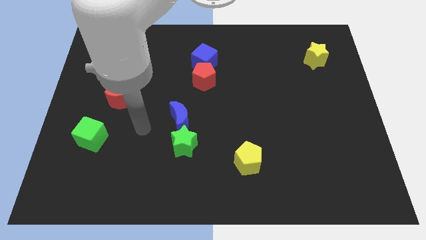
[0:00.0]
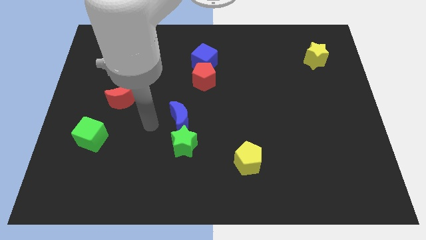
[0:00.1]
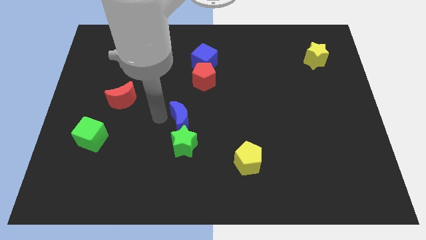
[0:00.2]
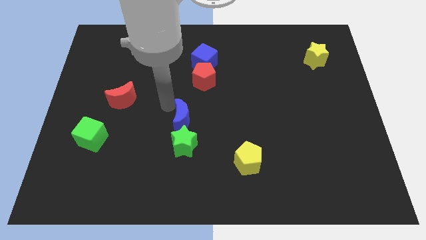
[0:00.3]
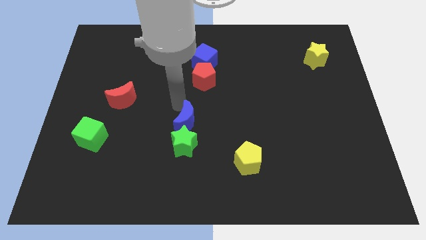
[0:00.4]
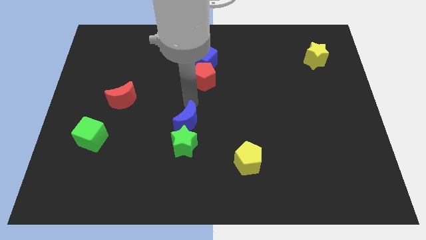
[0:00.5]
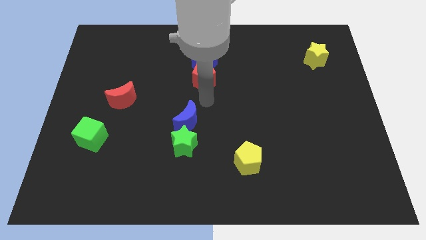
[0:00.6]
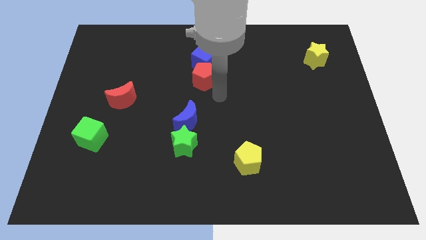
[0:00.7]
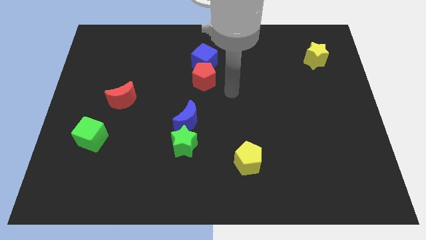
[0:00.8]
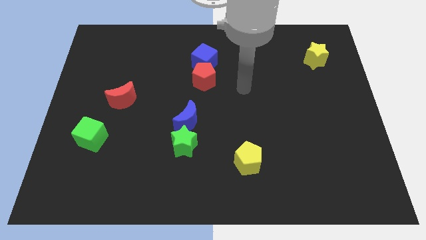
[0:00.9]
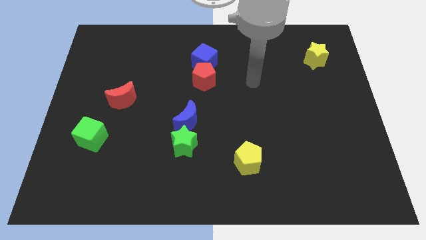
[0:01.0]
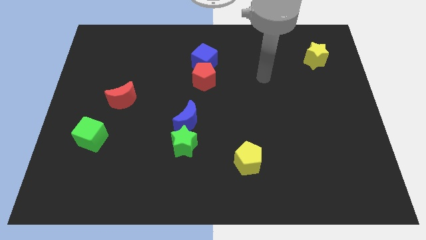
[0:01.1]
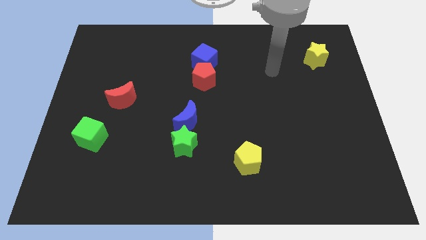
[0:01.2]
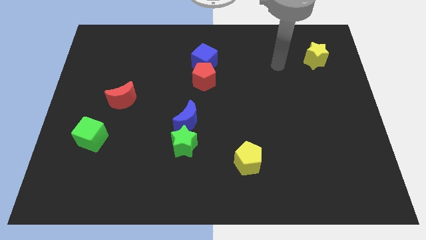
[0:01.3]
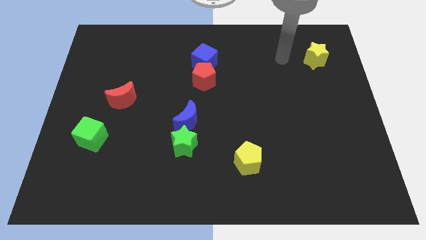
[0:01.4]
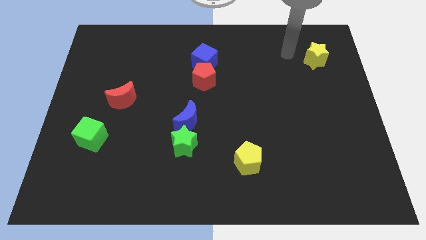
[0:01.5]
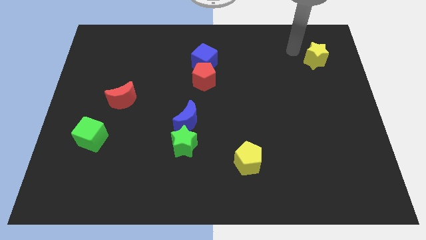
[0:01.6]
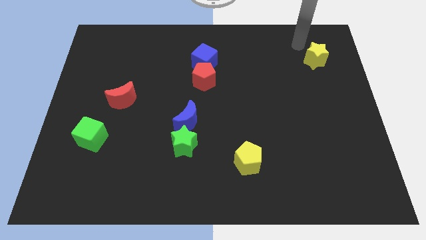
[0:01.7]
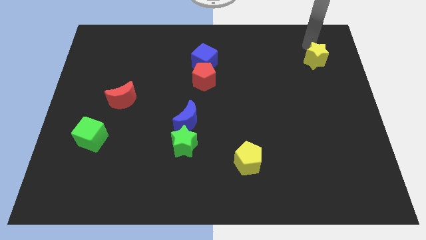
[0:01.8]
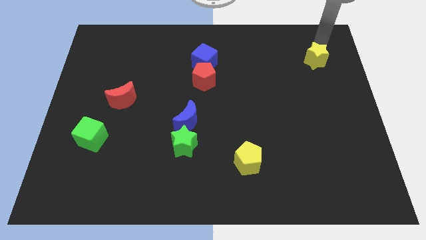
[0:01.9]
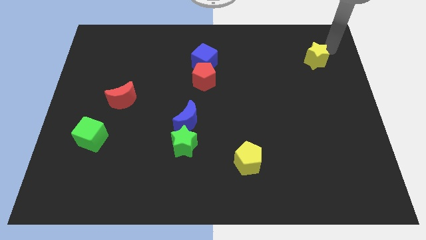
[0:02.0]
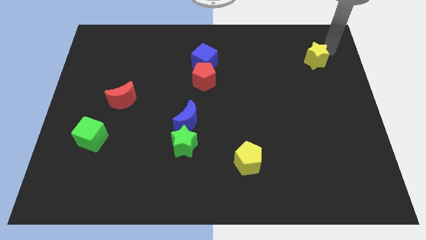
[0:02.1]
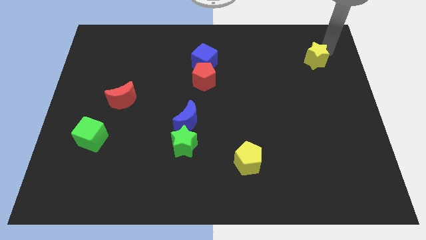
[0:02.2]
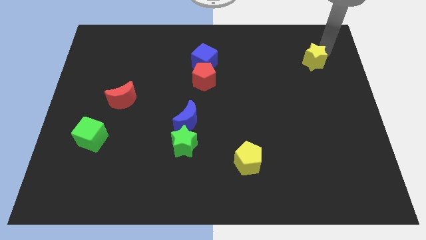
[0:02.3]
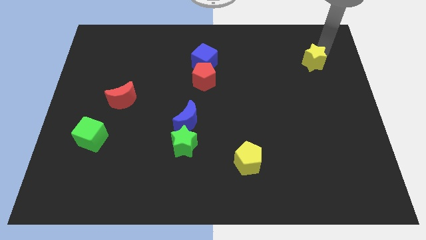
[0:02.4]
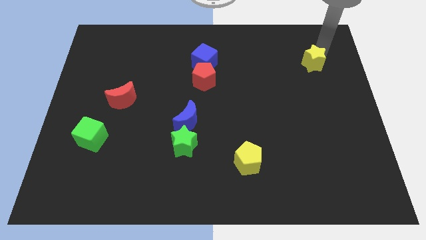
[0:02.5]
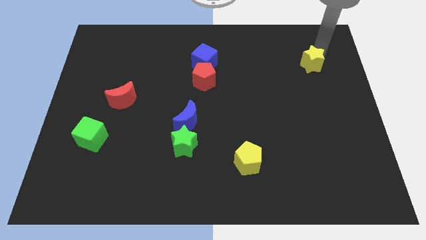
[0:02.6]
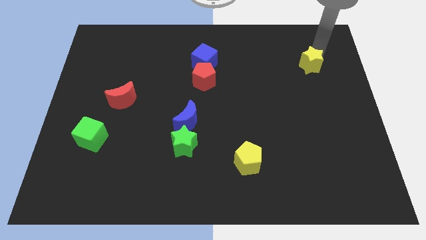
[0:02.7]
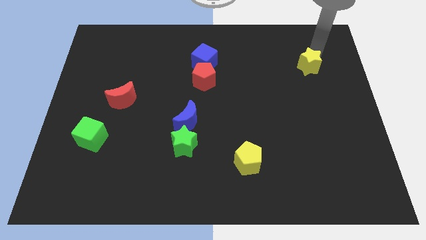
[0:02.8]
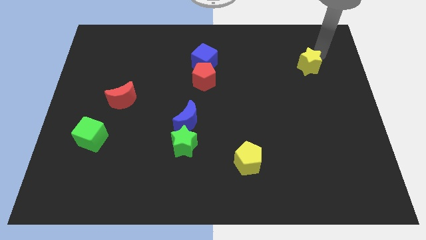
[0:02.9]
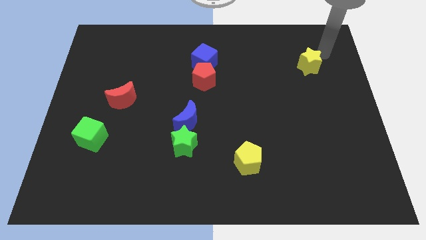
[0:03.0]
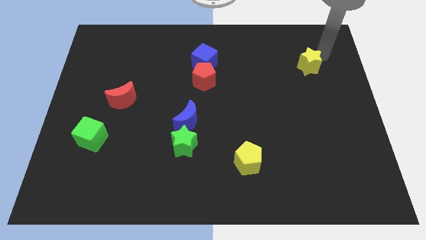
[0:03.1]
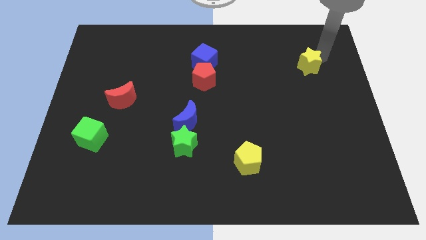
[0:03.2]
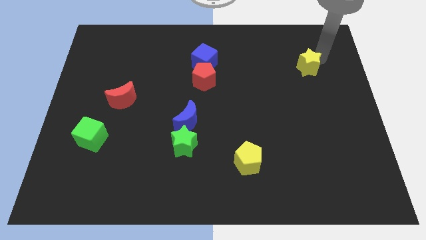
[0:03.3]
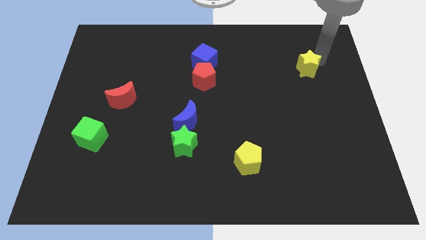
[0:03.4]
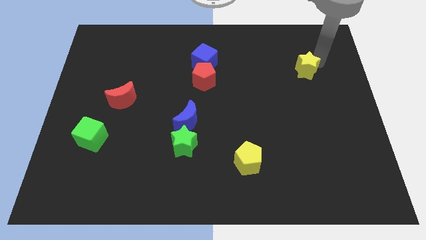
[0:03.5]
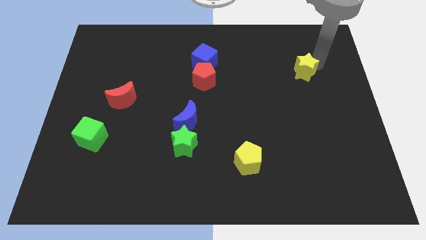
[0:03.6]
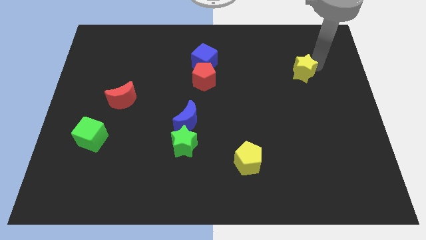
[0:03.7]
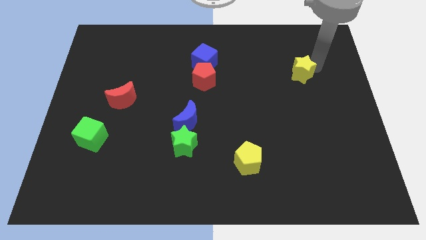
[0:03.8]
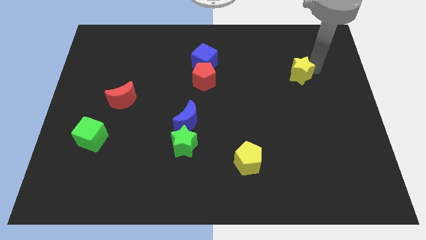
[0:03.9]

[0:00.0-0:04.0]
move the yellow star diagonally down and to the left a bit

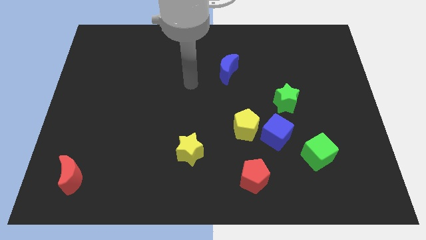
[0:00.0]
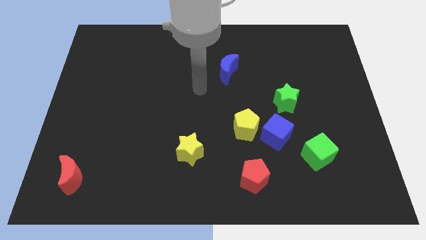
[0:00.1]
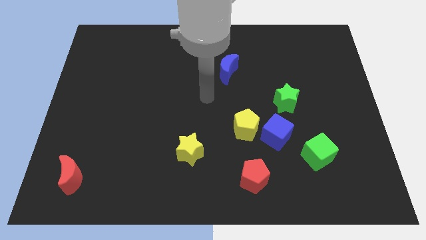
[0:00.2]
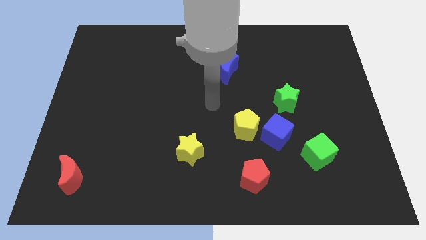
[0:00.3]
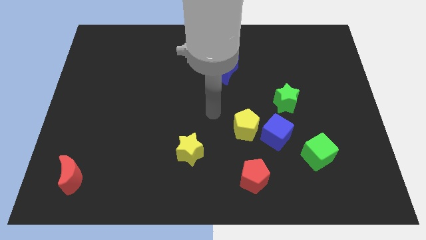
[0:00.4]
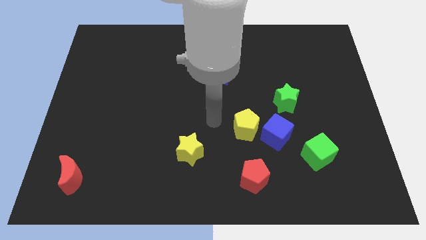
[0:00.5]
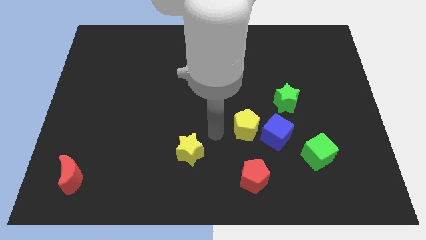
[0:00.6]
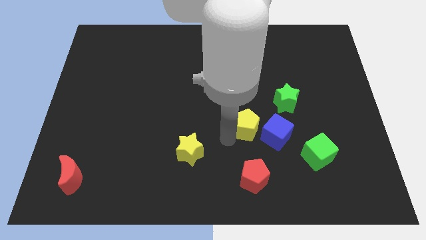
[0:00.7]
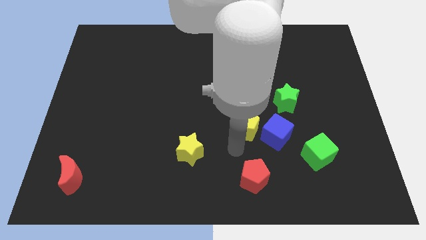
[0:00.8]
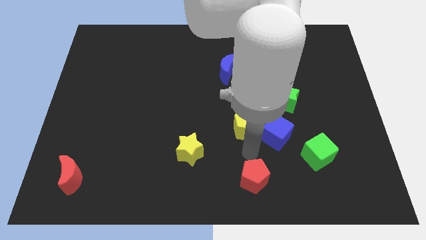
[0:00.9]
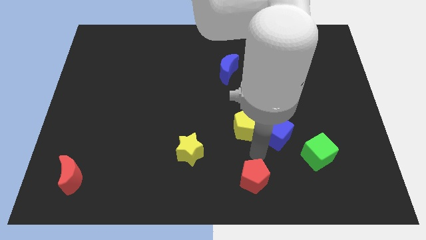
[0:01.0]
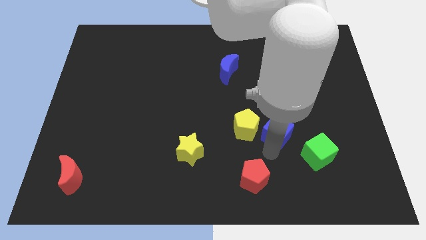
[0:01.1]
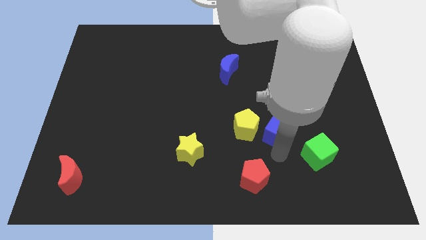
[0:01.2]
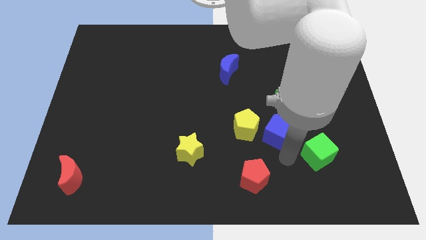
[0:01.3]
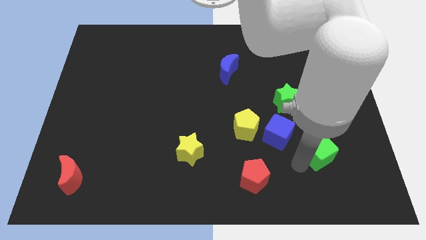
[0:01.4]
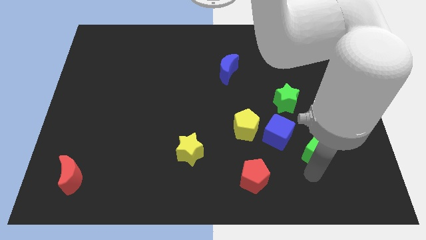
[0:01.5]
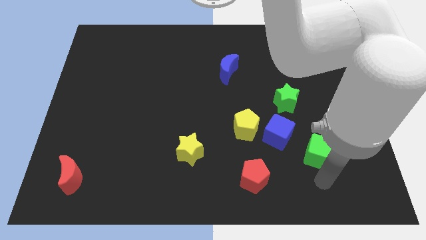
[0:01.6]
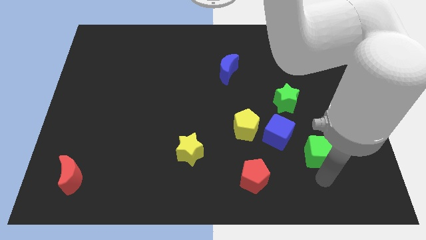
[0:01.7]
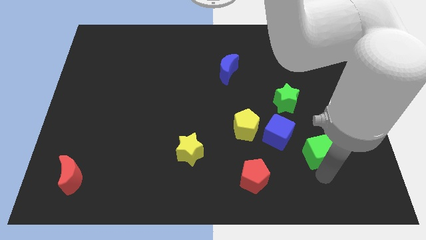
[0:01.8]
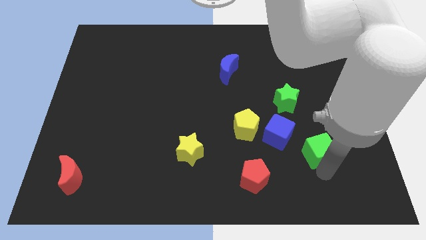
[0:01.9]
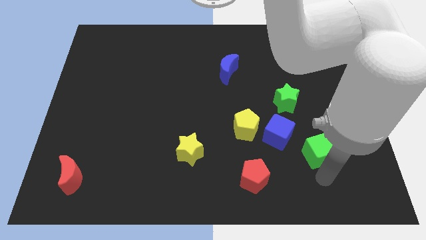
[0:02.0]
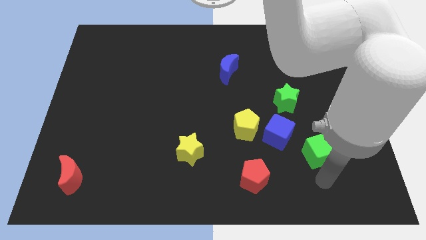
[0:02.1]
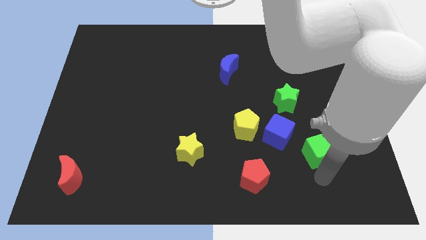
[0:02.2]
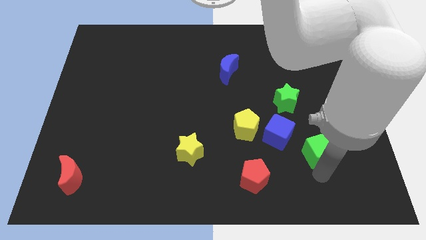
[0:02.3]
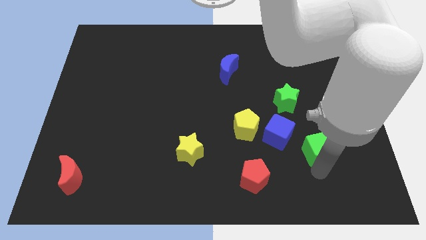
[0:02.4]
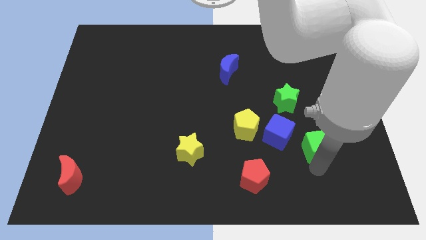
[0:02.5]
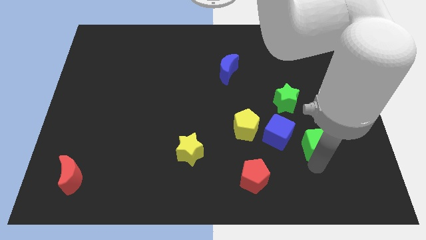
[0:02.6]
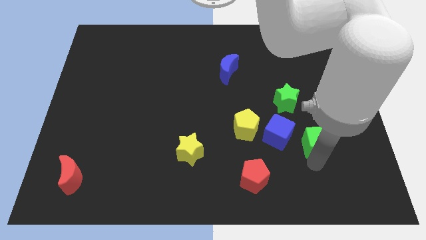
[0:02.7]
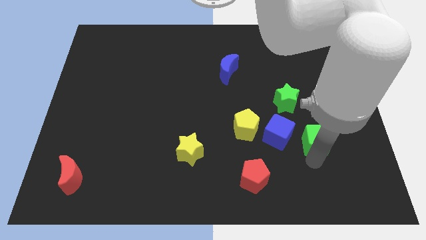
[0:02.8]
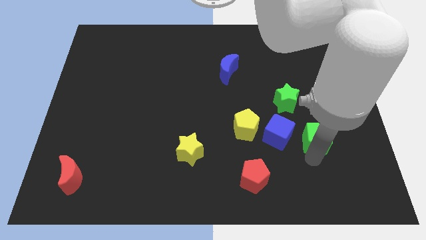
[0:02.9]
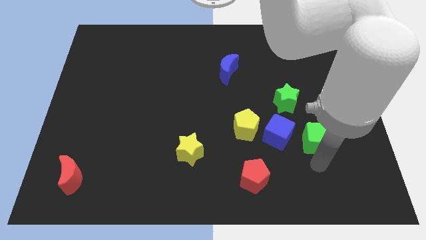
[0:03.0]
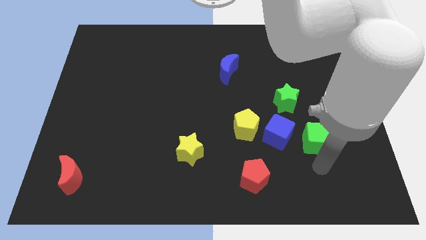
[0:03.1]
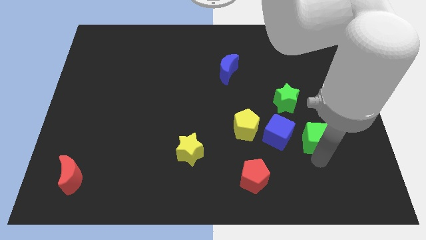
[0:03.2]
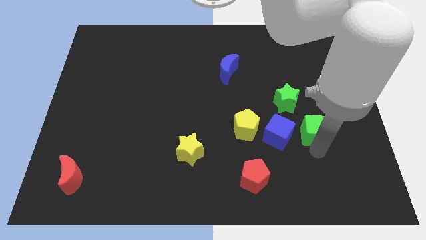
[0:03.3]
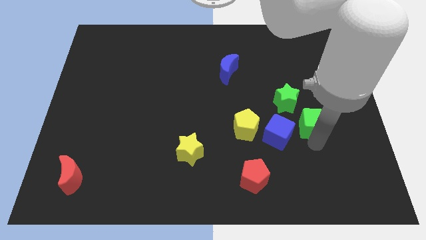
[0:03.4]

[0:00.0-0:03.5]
slightly push the green cube up

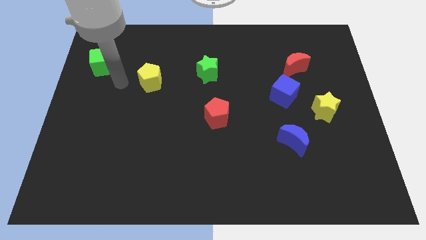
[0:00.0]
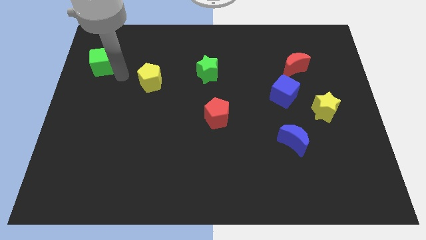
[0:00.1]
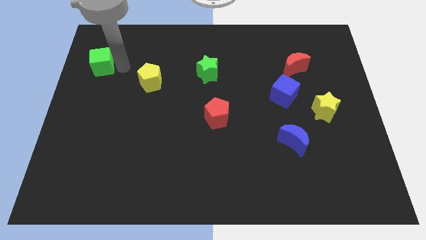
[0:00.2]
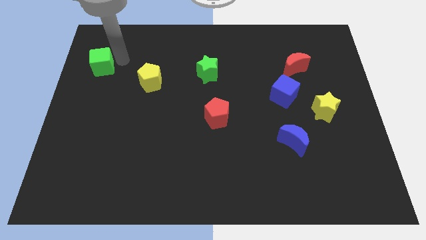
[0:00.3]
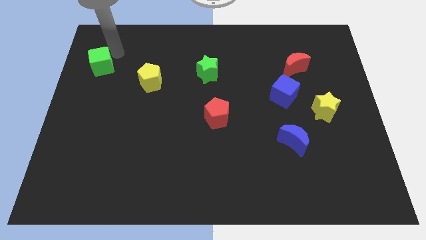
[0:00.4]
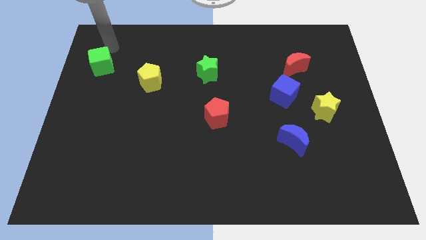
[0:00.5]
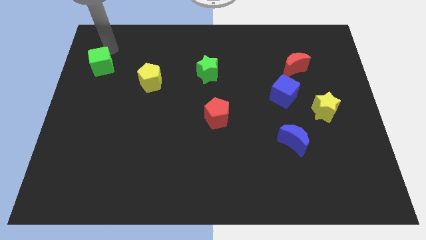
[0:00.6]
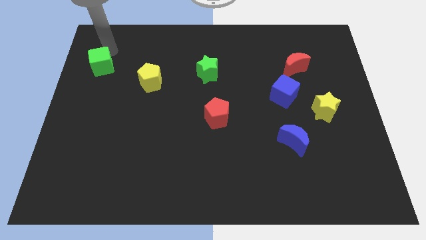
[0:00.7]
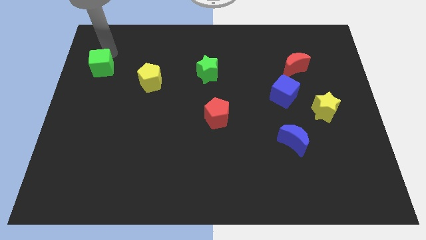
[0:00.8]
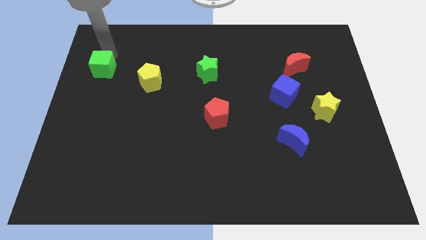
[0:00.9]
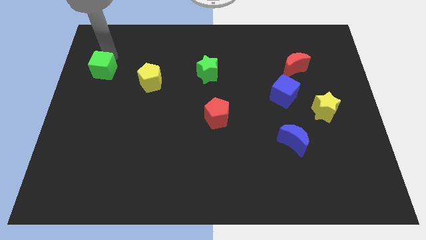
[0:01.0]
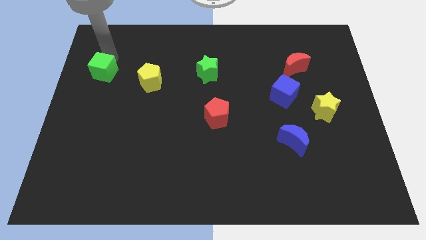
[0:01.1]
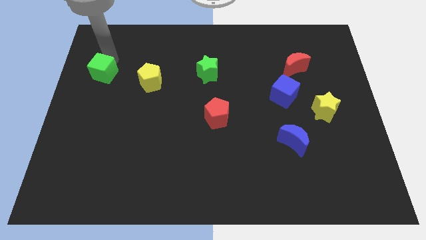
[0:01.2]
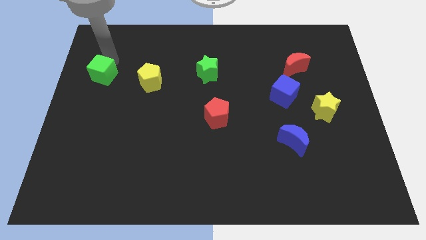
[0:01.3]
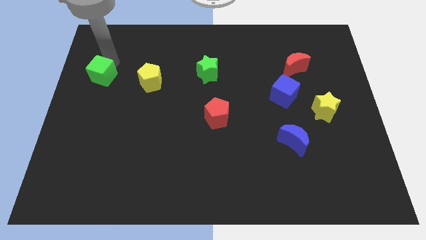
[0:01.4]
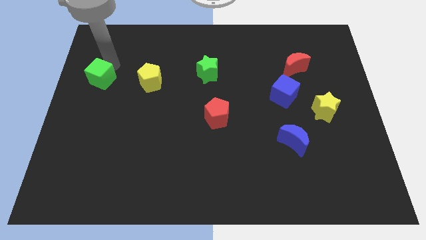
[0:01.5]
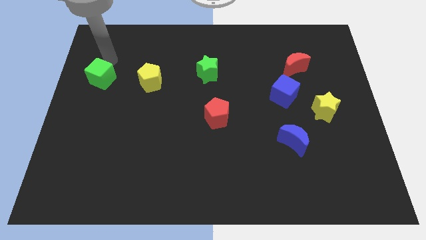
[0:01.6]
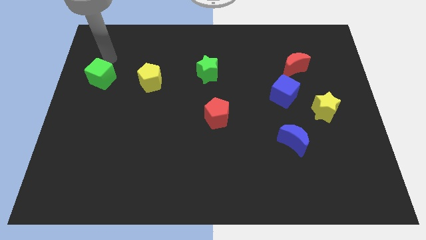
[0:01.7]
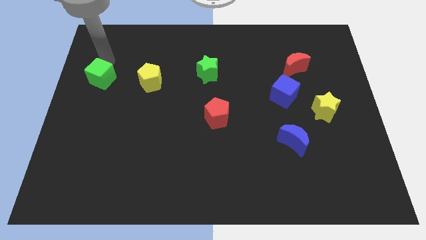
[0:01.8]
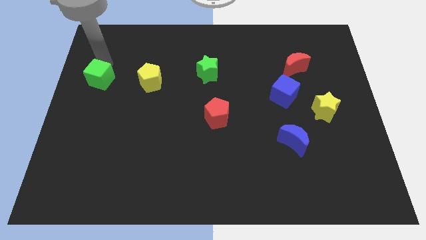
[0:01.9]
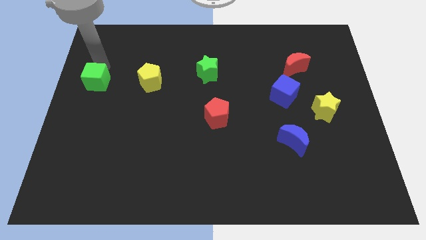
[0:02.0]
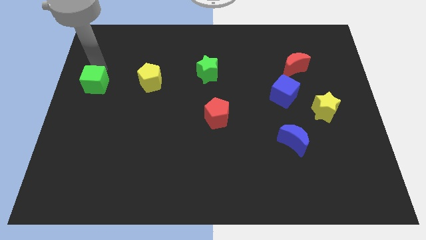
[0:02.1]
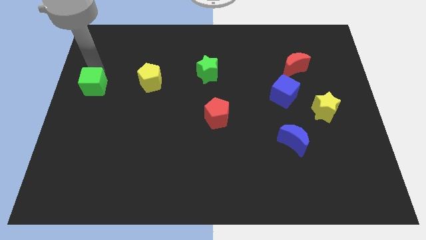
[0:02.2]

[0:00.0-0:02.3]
slightly push the green cube down
